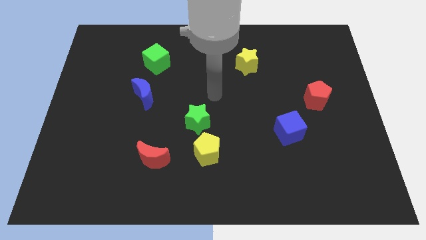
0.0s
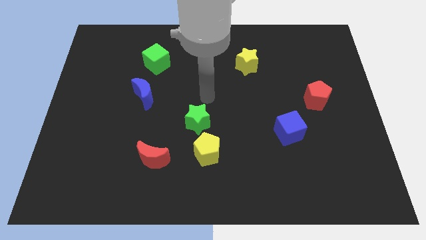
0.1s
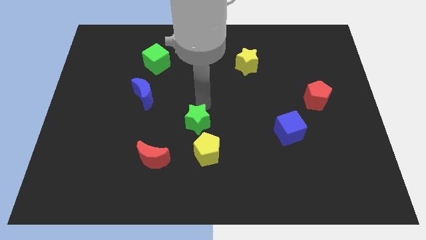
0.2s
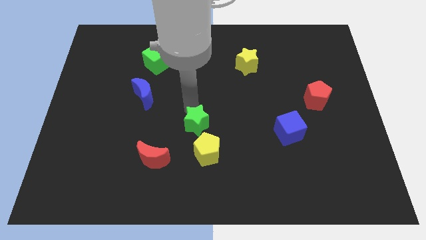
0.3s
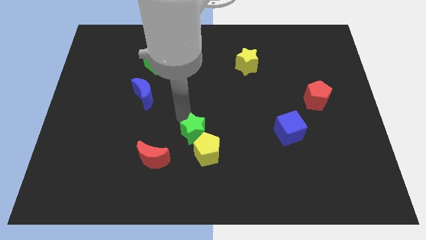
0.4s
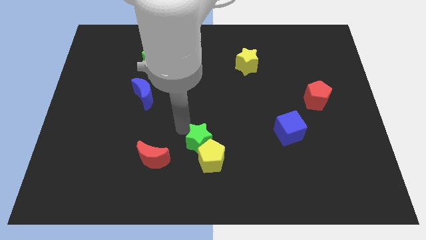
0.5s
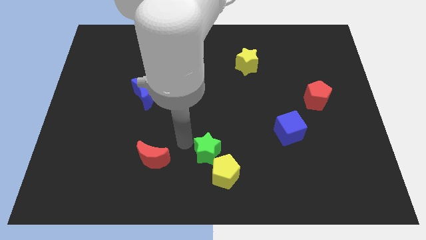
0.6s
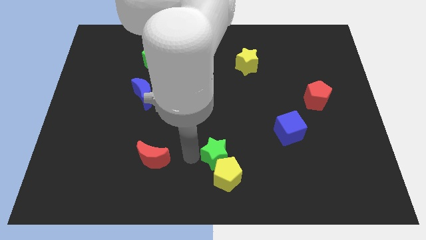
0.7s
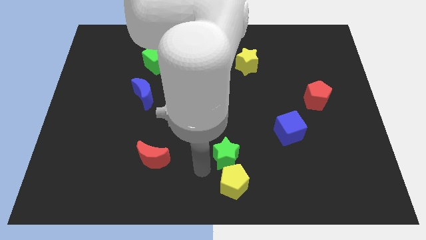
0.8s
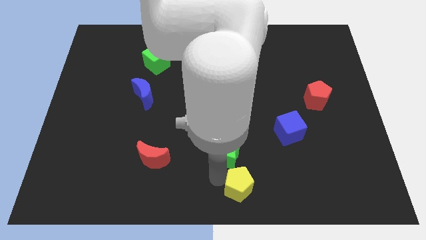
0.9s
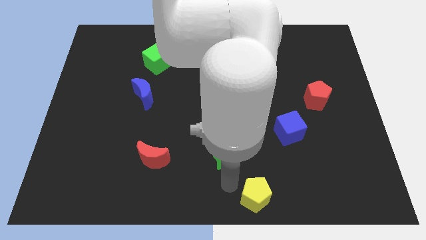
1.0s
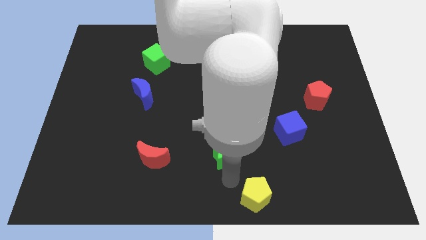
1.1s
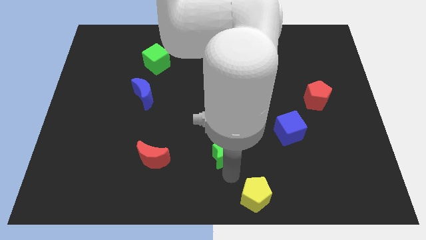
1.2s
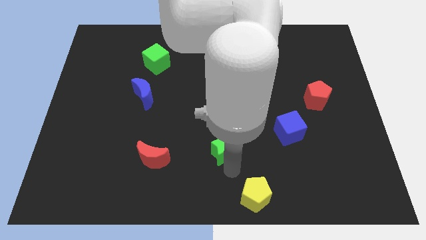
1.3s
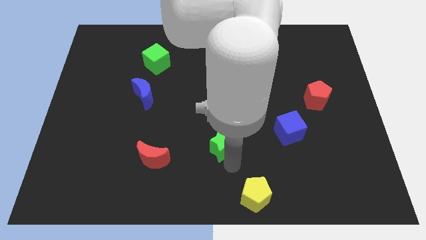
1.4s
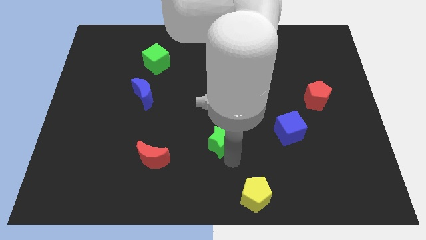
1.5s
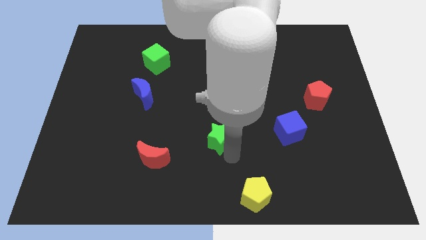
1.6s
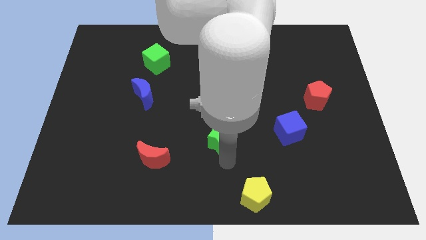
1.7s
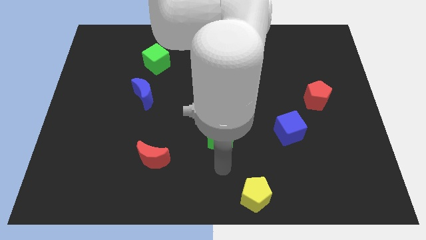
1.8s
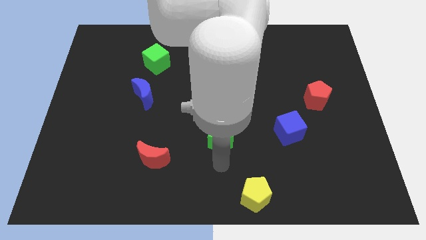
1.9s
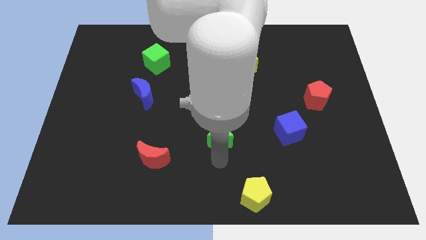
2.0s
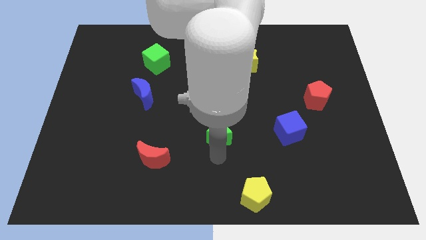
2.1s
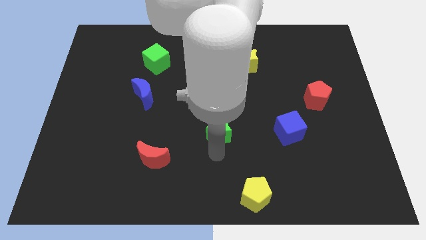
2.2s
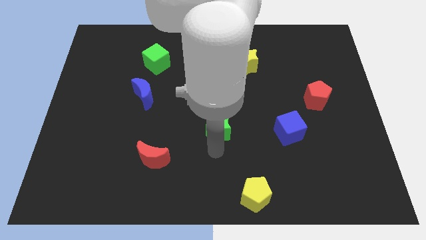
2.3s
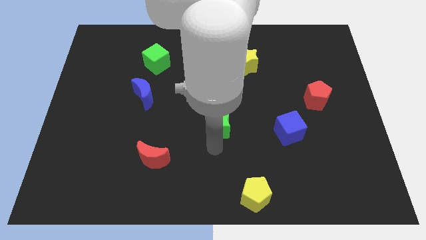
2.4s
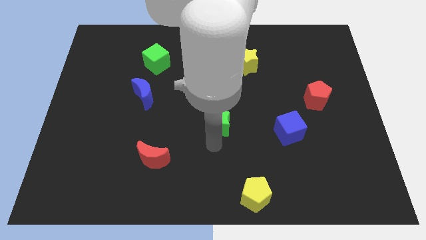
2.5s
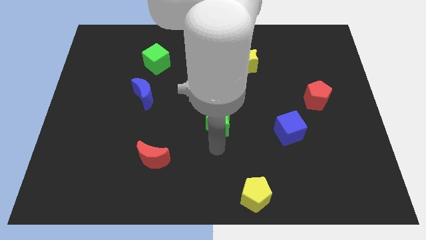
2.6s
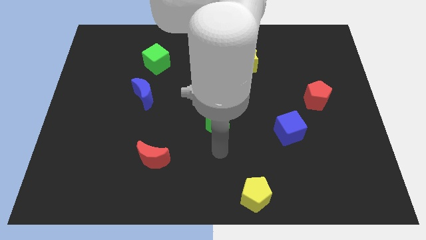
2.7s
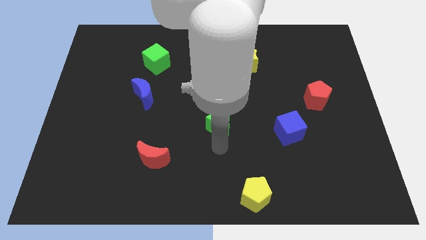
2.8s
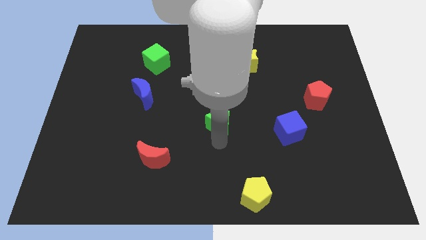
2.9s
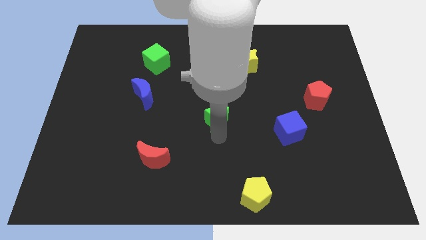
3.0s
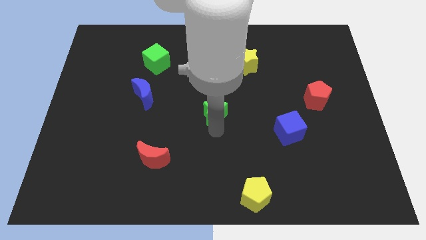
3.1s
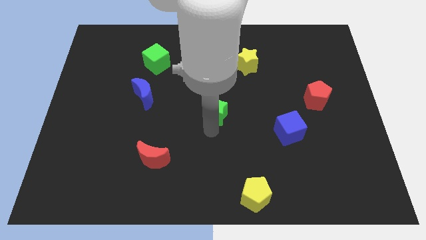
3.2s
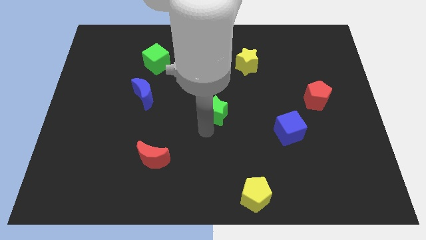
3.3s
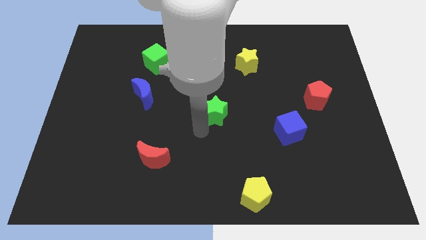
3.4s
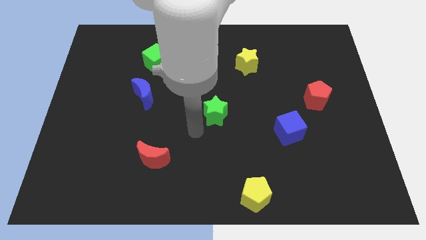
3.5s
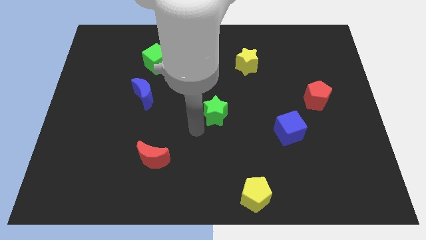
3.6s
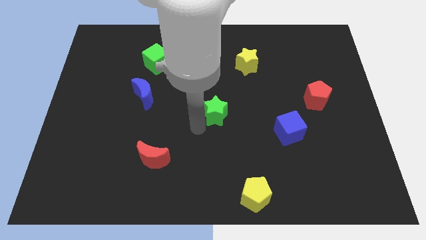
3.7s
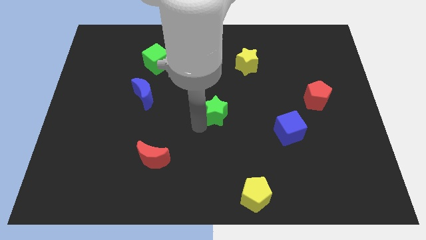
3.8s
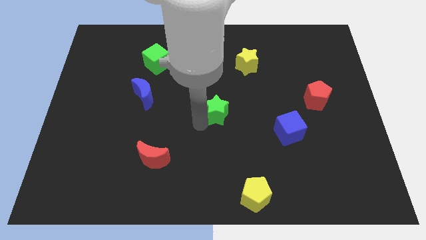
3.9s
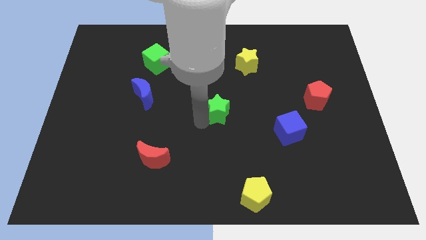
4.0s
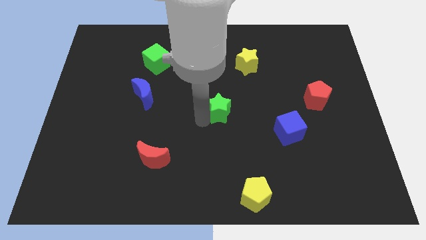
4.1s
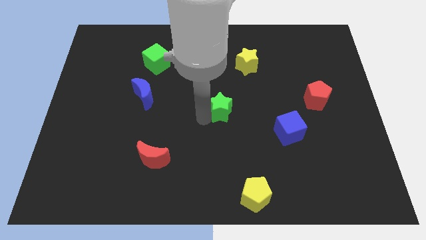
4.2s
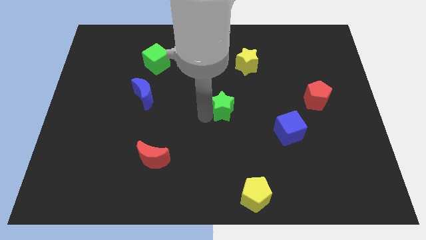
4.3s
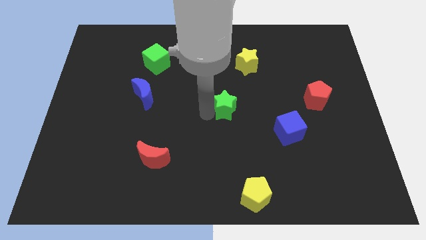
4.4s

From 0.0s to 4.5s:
push the green star diagonally upwards and right a bit

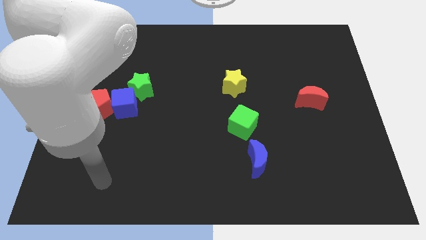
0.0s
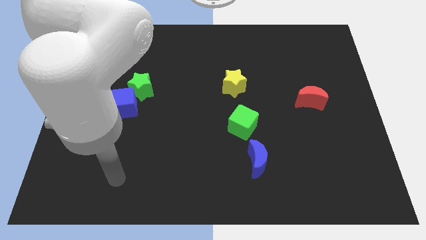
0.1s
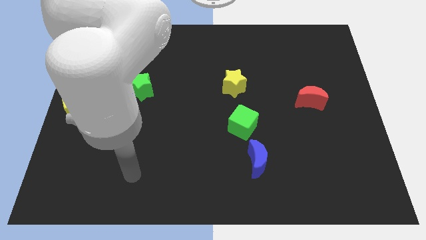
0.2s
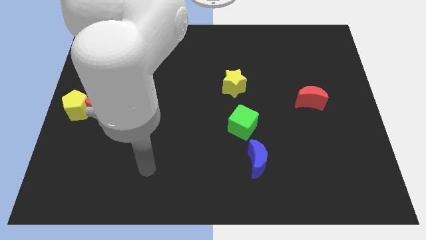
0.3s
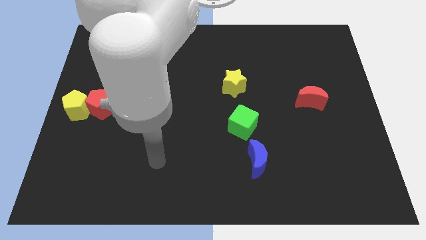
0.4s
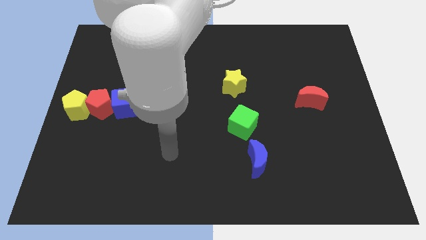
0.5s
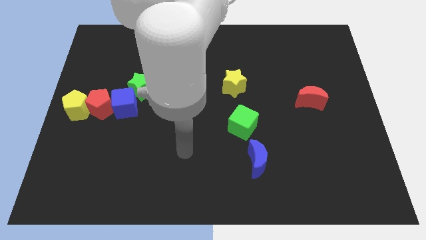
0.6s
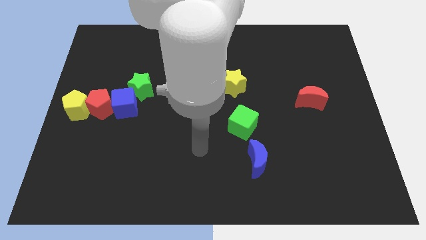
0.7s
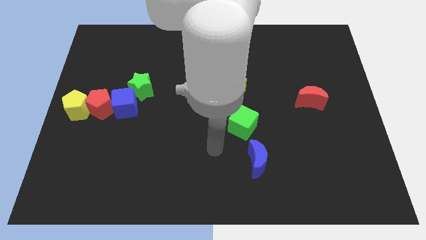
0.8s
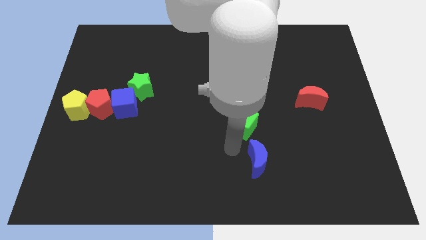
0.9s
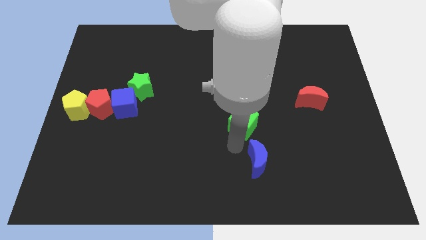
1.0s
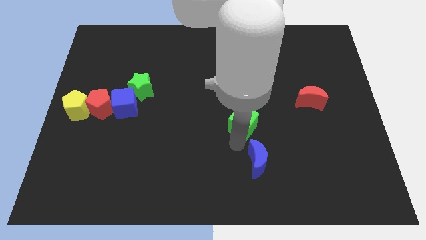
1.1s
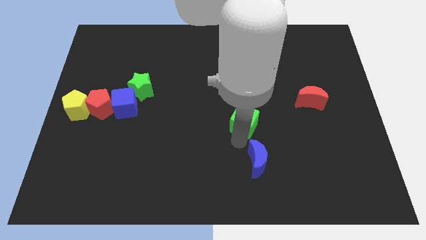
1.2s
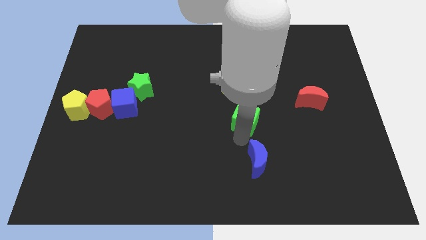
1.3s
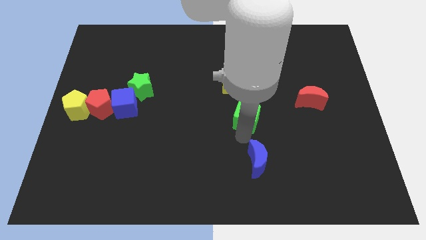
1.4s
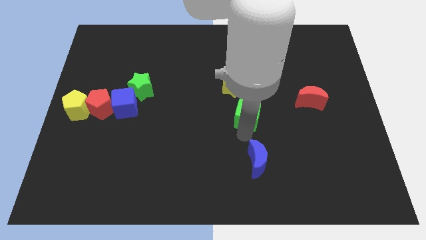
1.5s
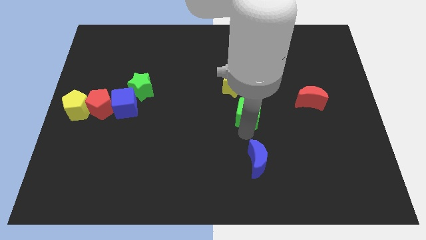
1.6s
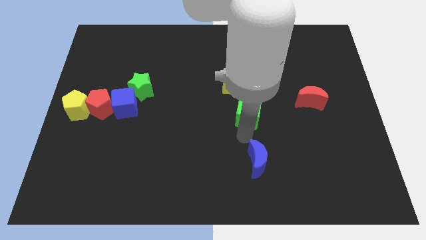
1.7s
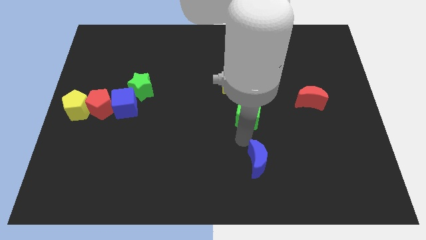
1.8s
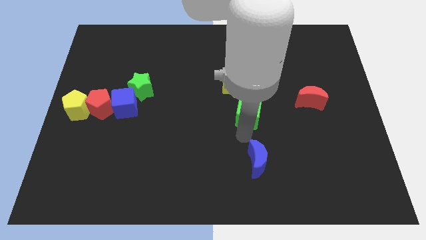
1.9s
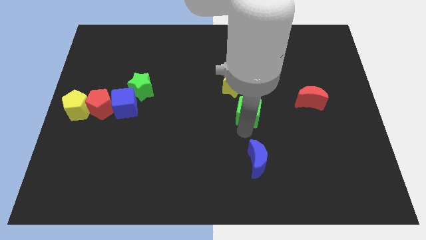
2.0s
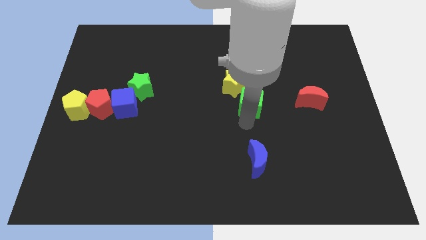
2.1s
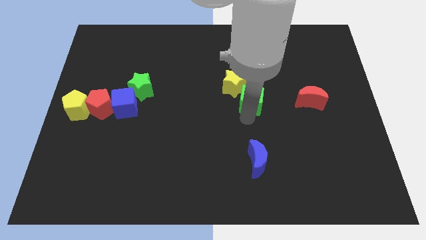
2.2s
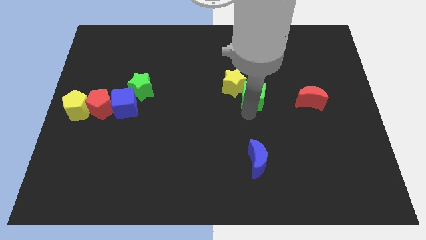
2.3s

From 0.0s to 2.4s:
slightly push the green cube up

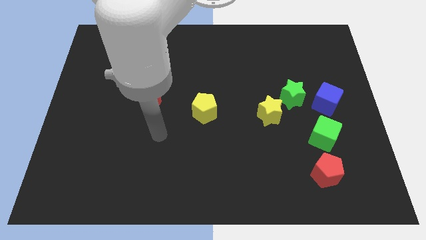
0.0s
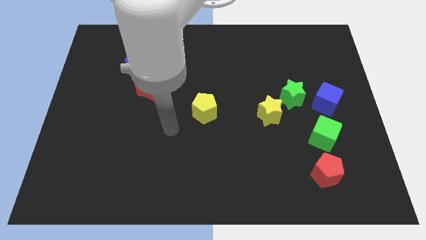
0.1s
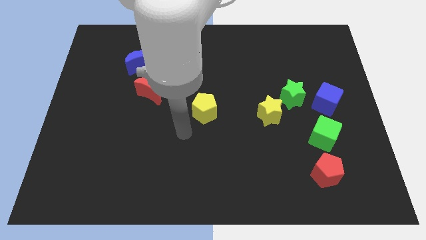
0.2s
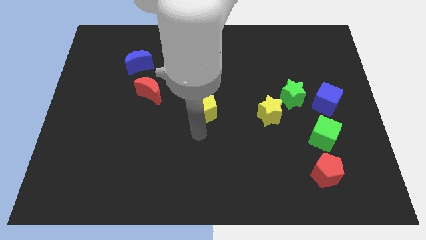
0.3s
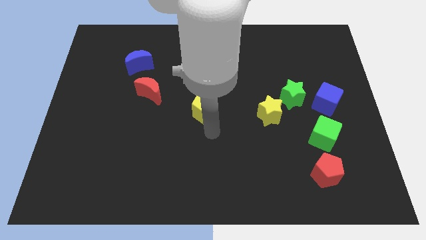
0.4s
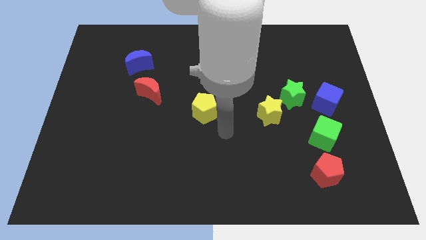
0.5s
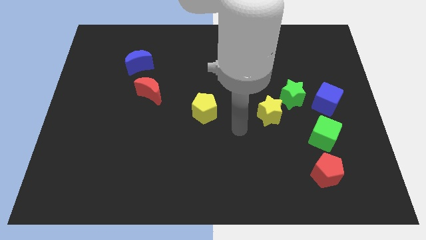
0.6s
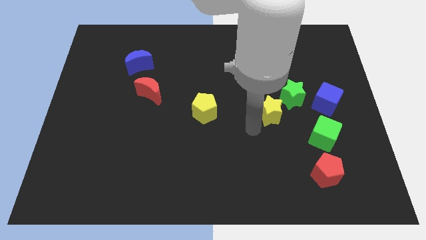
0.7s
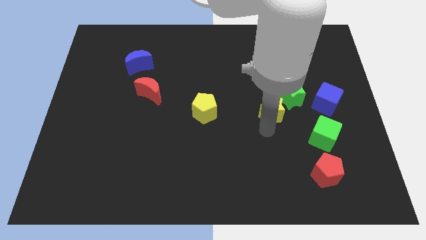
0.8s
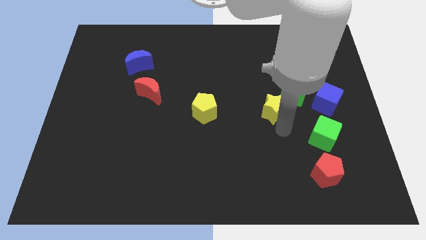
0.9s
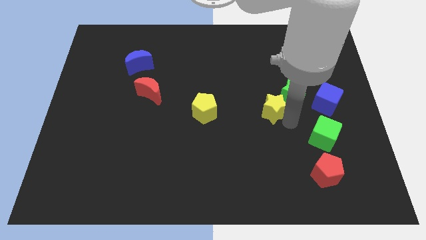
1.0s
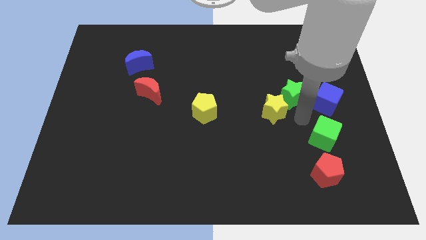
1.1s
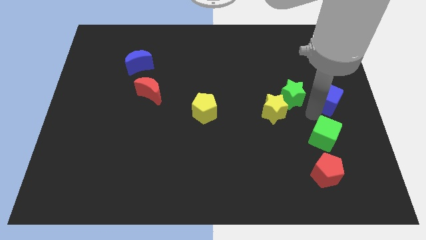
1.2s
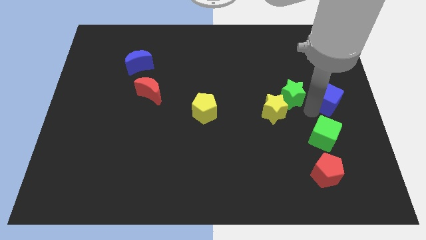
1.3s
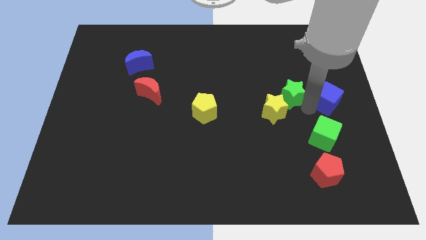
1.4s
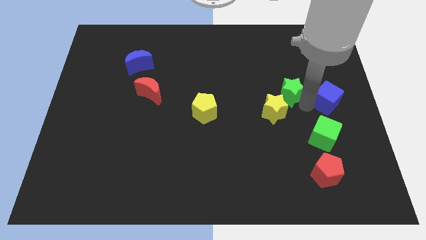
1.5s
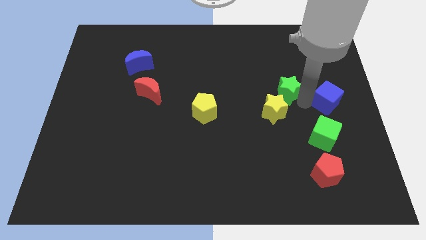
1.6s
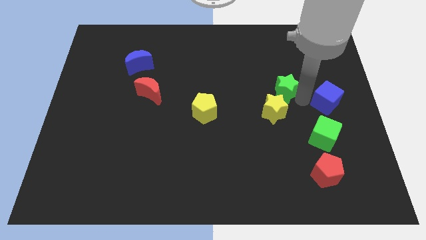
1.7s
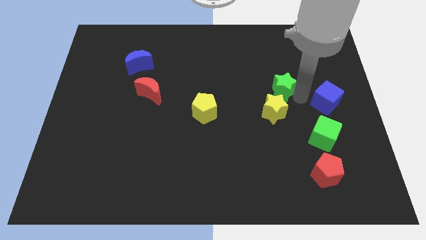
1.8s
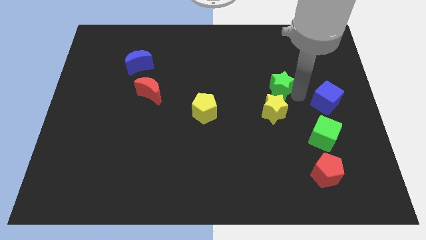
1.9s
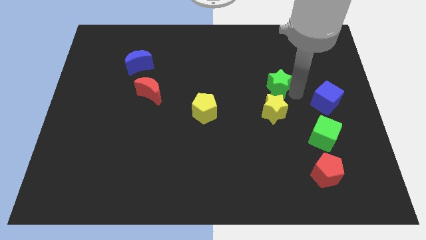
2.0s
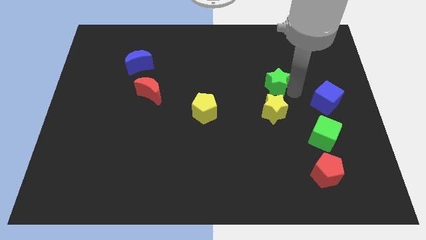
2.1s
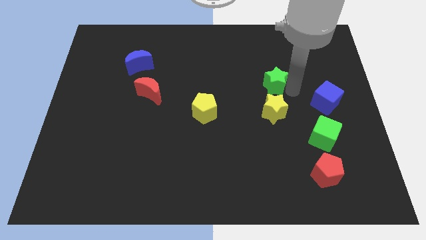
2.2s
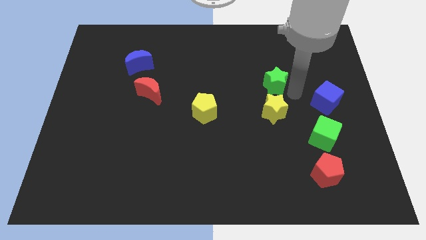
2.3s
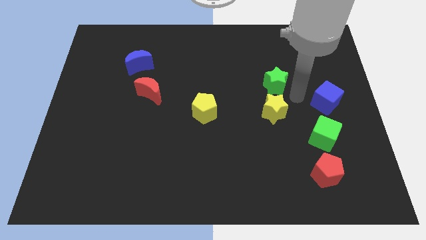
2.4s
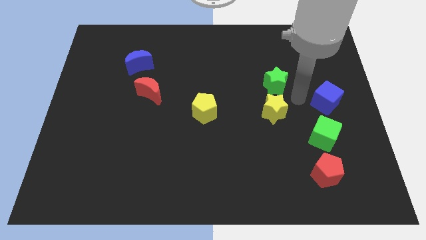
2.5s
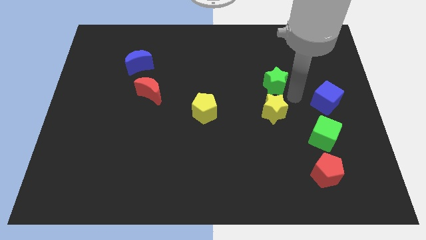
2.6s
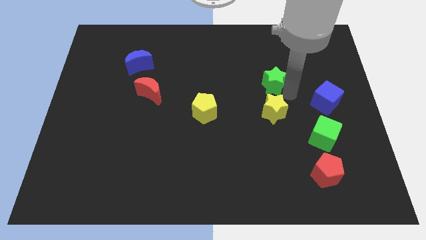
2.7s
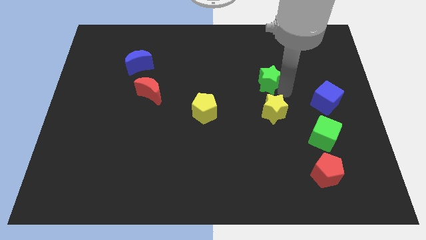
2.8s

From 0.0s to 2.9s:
push the green star a bit upwards and then left
